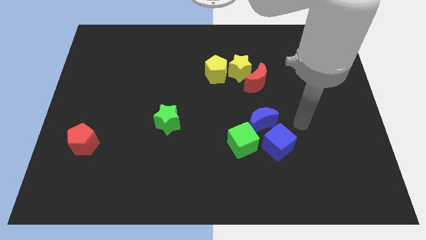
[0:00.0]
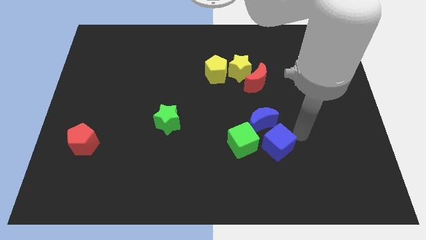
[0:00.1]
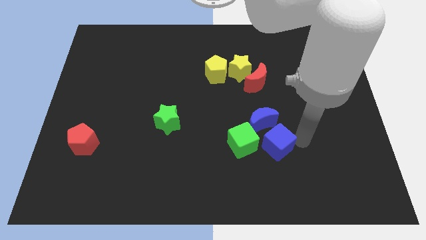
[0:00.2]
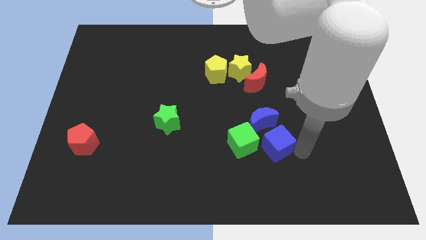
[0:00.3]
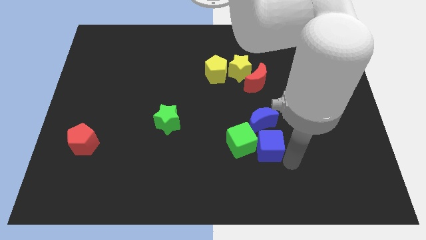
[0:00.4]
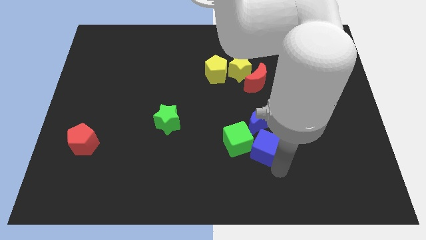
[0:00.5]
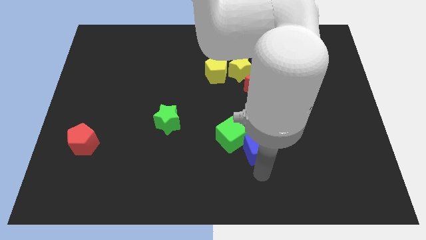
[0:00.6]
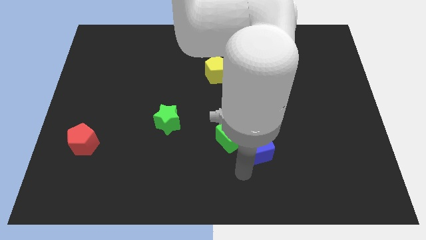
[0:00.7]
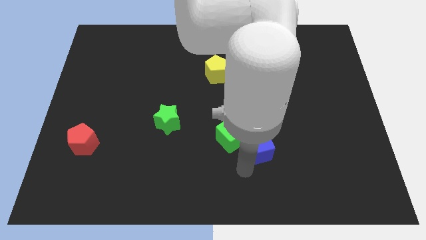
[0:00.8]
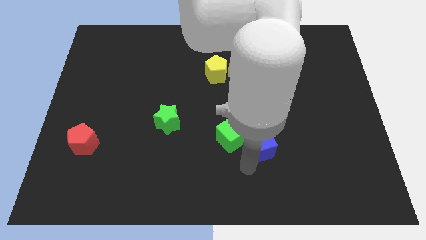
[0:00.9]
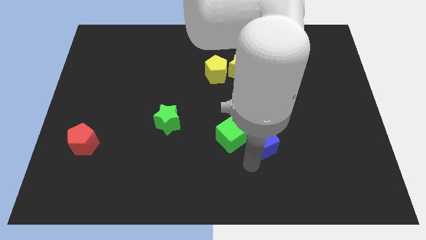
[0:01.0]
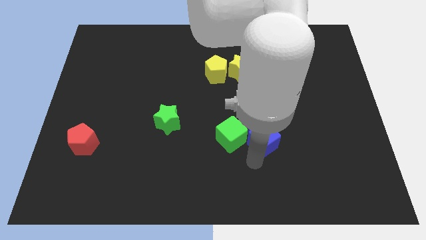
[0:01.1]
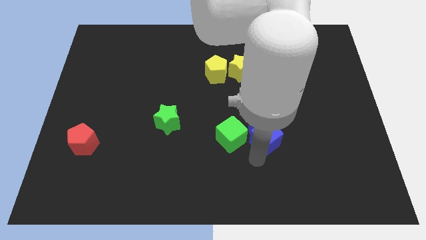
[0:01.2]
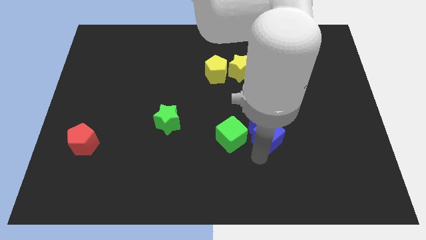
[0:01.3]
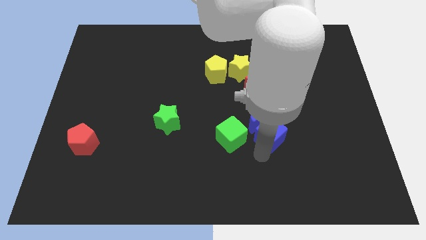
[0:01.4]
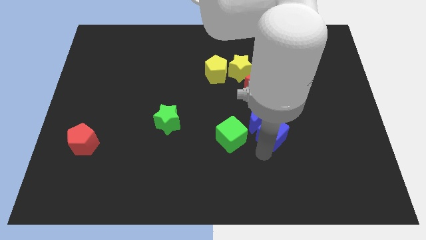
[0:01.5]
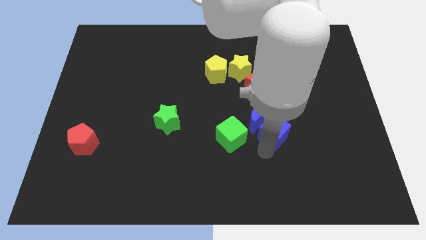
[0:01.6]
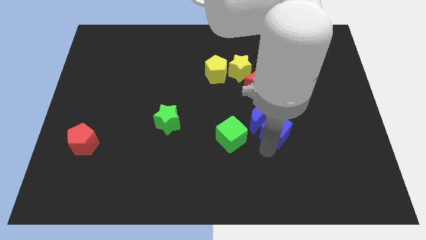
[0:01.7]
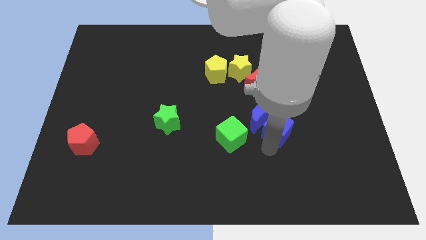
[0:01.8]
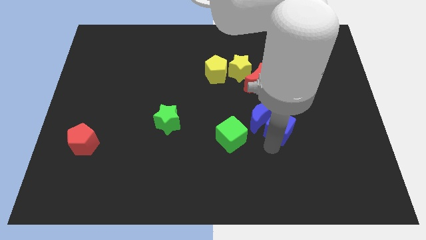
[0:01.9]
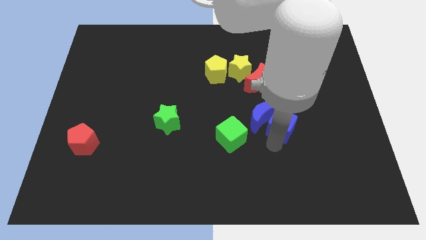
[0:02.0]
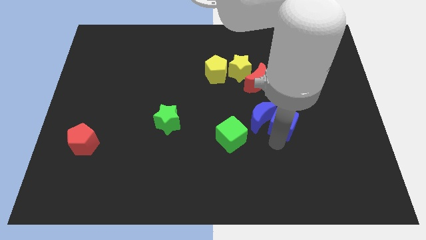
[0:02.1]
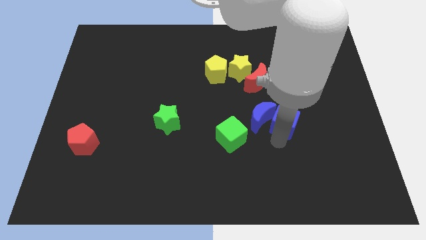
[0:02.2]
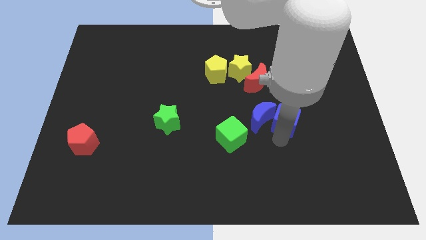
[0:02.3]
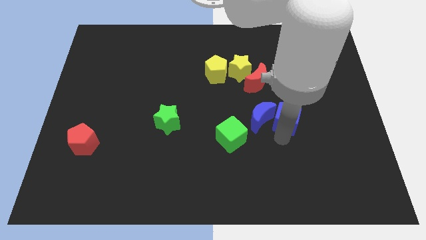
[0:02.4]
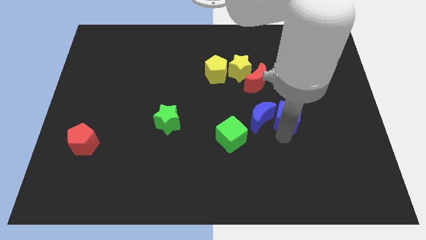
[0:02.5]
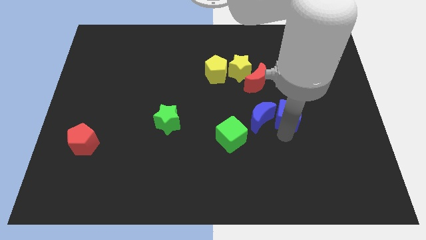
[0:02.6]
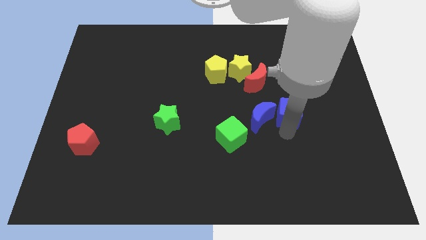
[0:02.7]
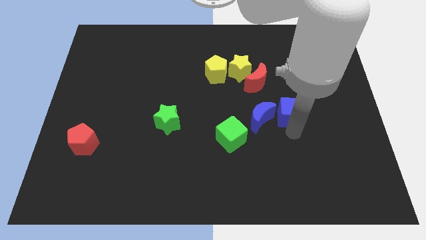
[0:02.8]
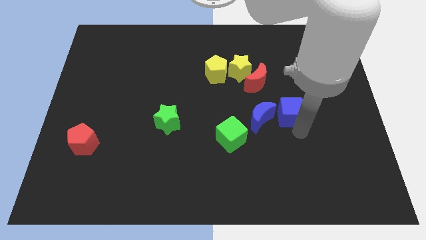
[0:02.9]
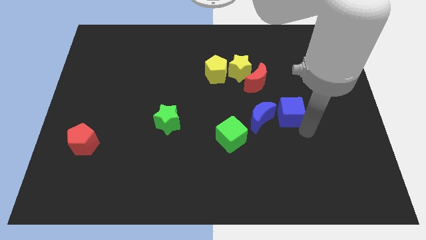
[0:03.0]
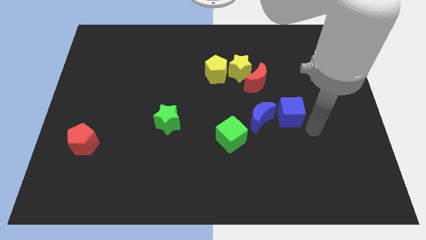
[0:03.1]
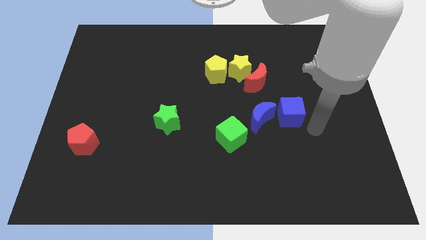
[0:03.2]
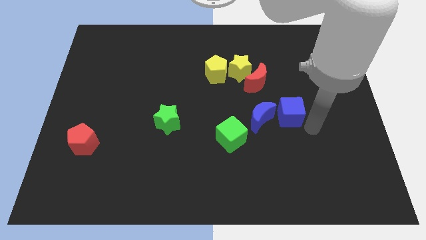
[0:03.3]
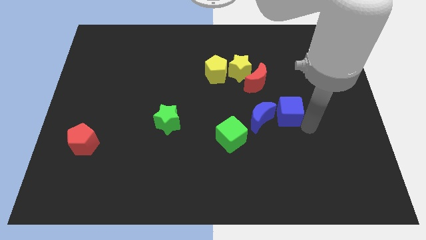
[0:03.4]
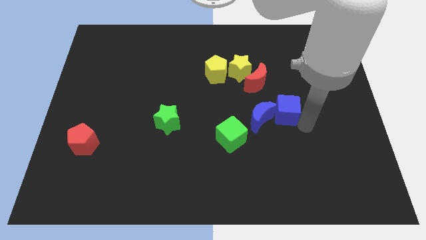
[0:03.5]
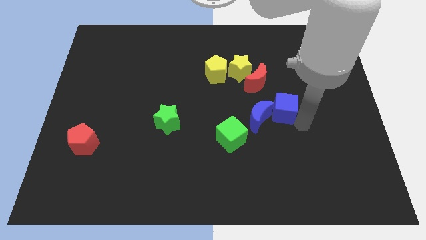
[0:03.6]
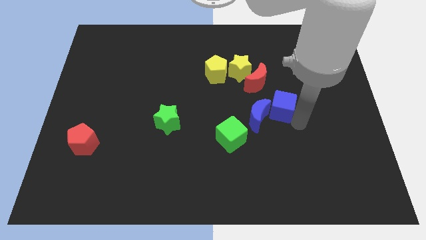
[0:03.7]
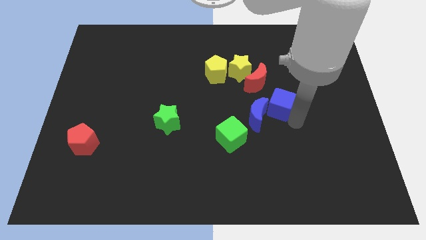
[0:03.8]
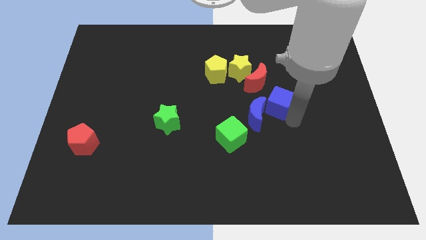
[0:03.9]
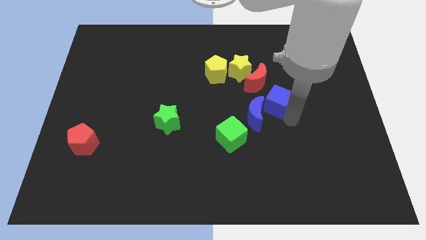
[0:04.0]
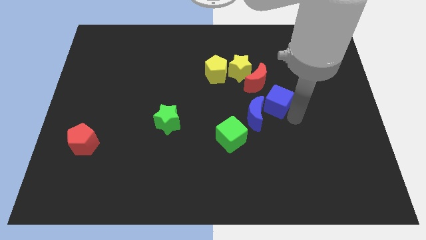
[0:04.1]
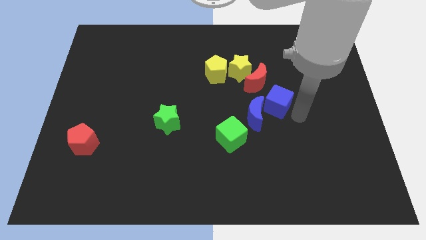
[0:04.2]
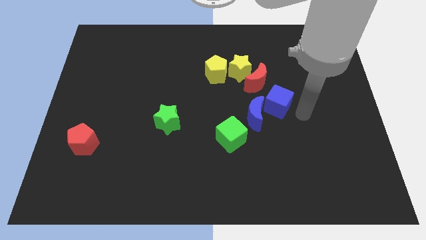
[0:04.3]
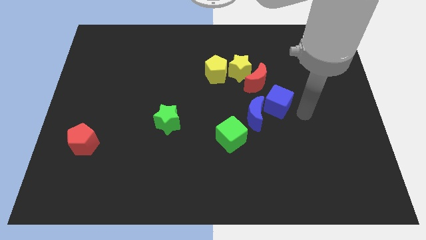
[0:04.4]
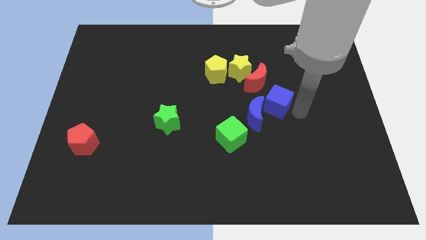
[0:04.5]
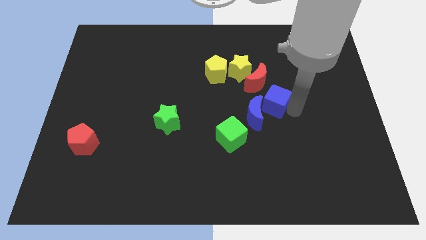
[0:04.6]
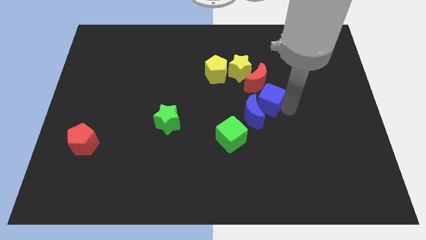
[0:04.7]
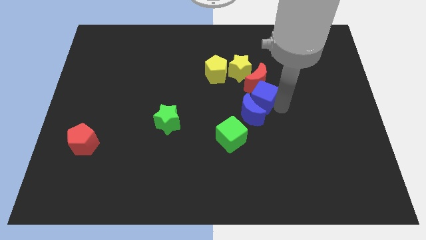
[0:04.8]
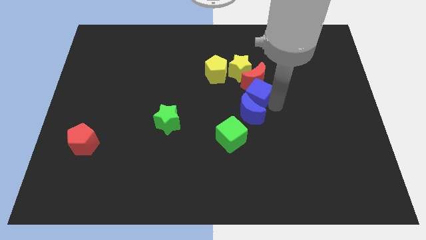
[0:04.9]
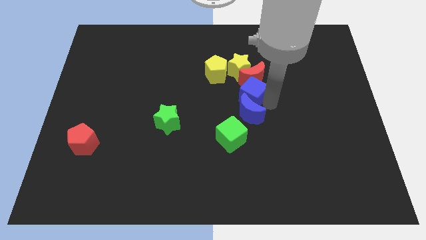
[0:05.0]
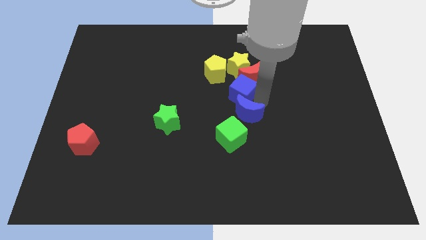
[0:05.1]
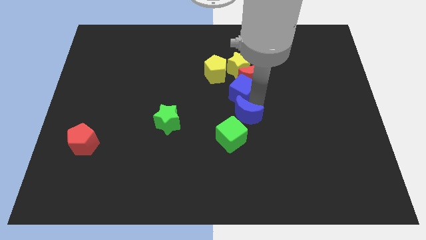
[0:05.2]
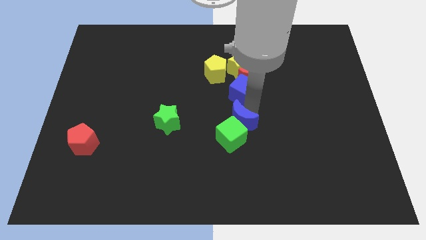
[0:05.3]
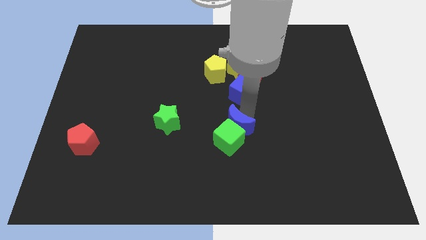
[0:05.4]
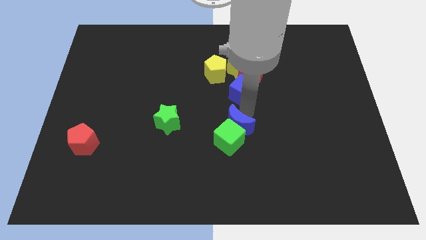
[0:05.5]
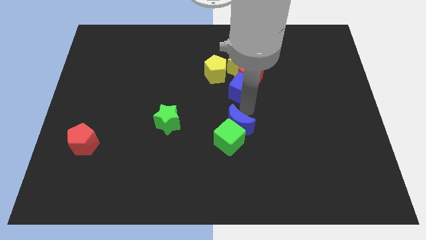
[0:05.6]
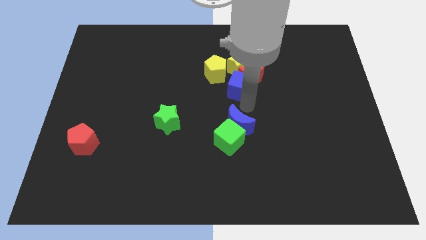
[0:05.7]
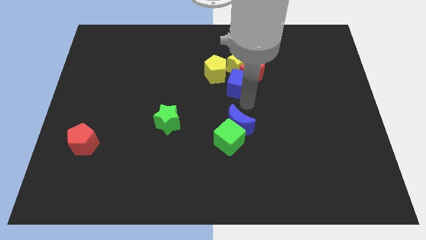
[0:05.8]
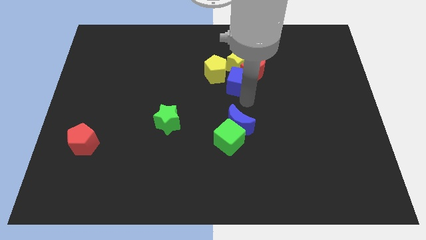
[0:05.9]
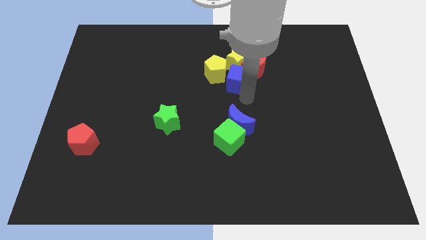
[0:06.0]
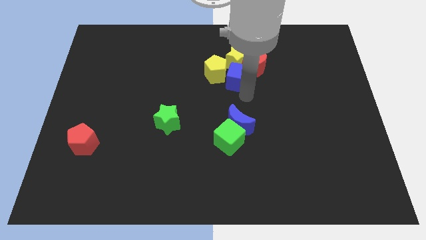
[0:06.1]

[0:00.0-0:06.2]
push the blue cube close to the yellow star

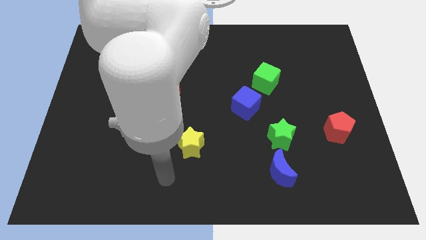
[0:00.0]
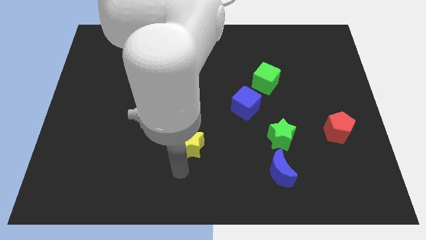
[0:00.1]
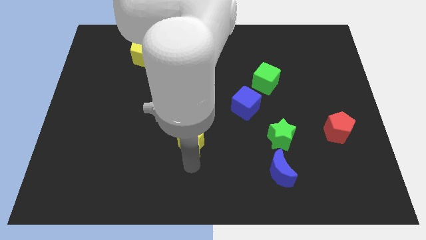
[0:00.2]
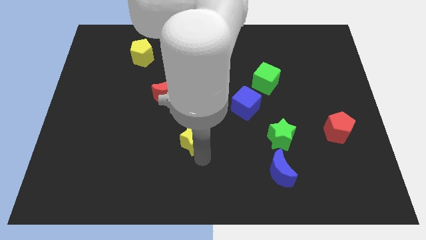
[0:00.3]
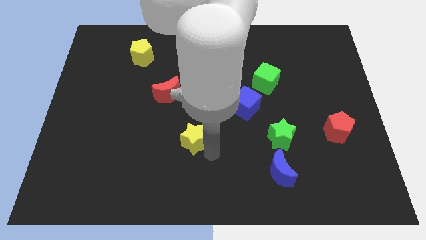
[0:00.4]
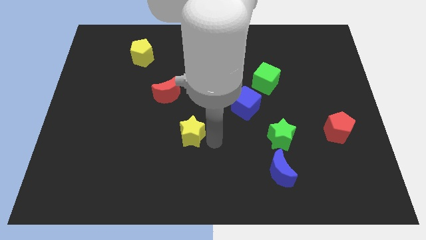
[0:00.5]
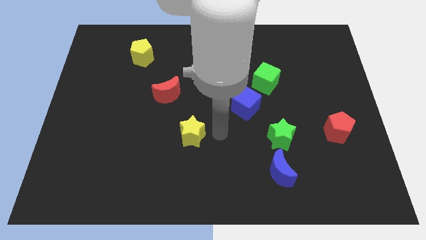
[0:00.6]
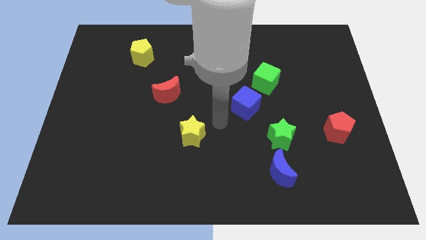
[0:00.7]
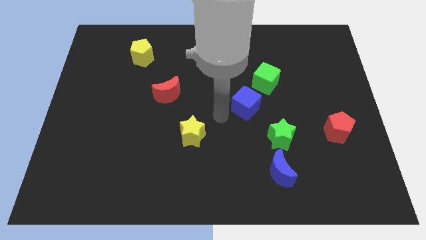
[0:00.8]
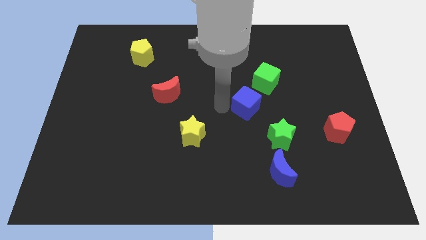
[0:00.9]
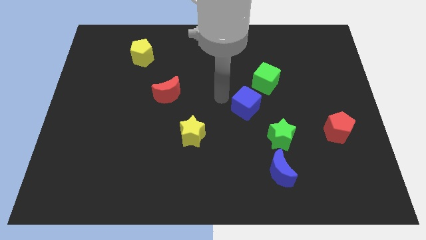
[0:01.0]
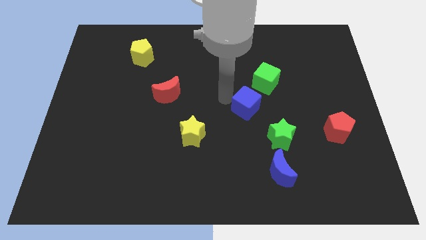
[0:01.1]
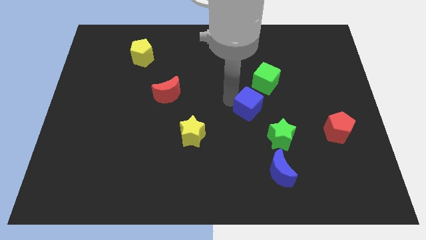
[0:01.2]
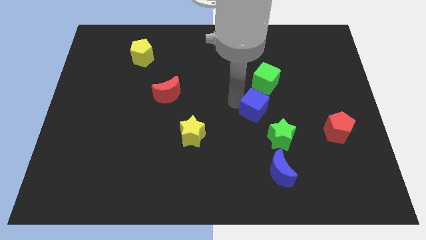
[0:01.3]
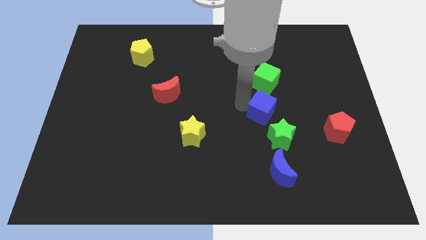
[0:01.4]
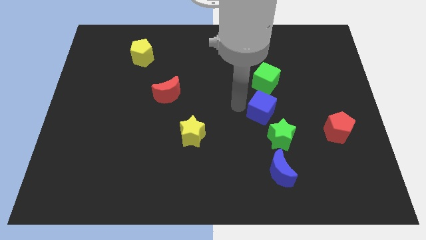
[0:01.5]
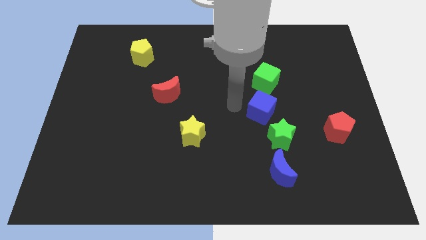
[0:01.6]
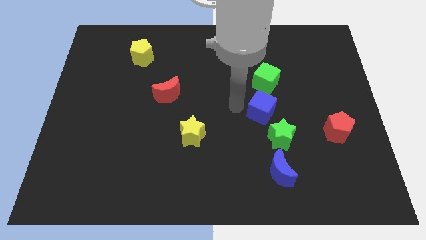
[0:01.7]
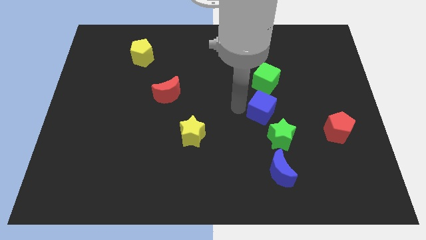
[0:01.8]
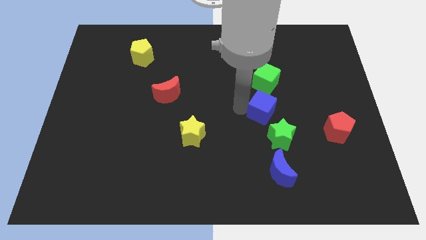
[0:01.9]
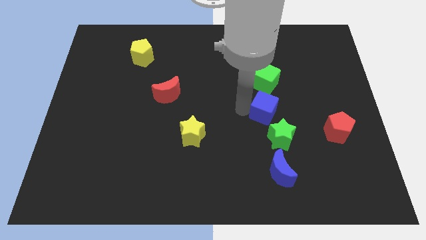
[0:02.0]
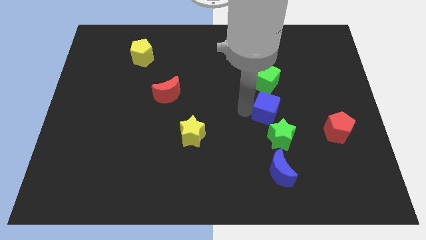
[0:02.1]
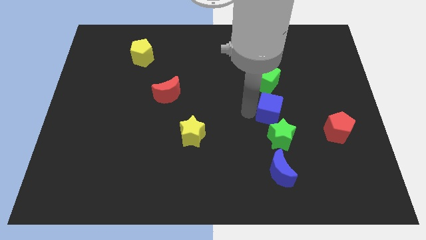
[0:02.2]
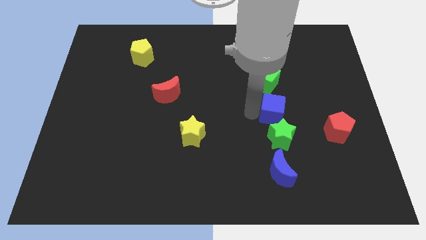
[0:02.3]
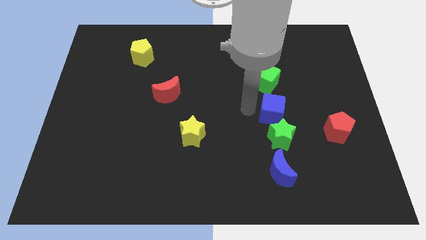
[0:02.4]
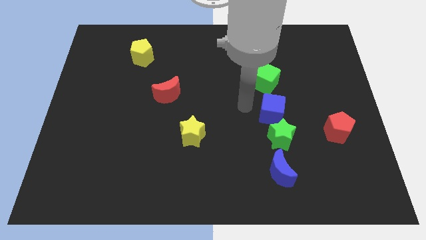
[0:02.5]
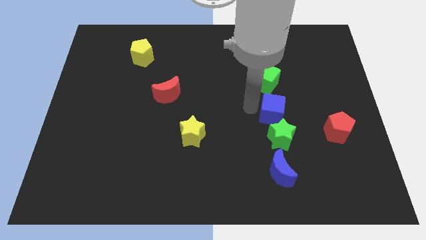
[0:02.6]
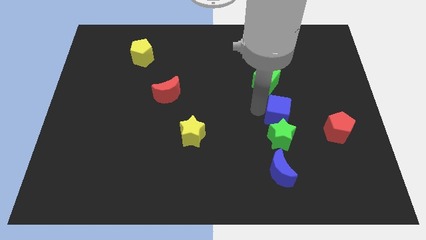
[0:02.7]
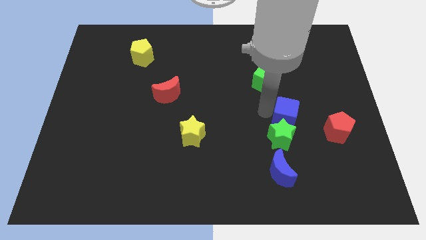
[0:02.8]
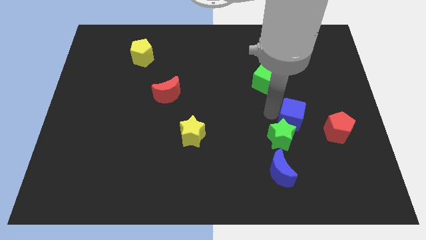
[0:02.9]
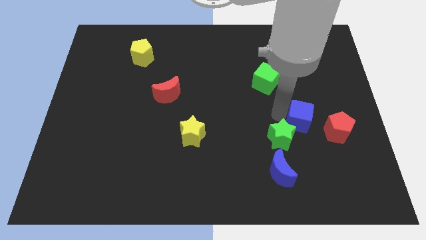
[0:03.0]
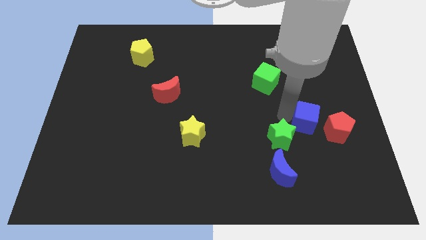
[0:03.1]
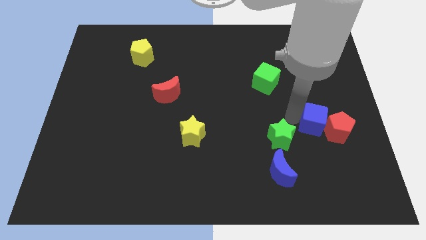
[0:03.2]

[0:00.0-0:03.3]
put the blue cube to the red pentagon
